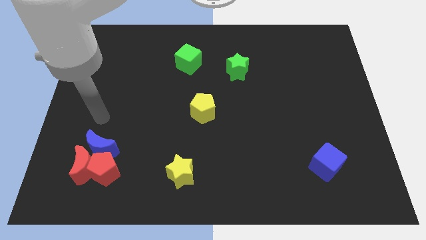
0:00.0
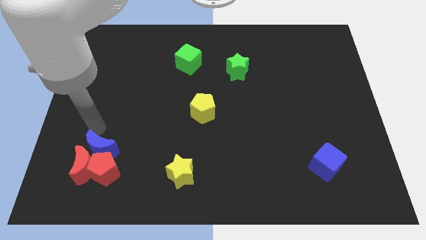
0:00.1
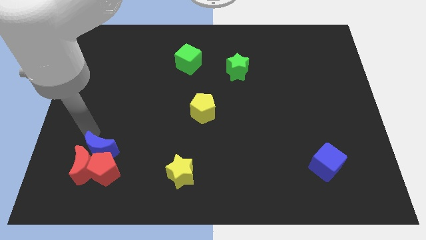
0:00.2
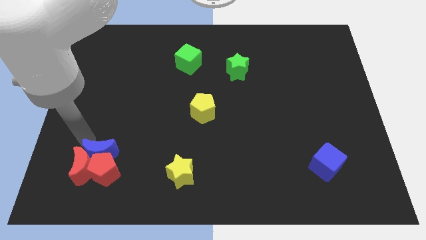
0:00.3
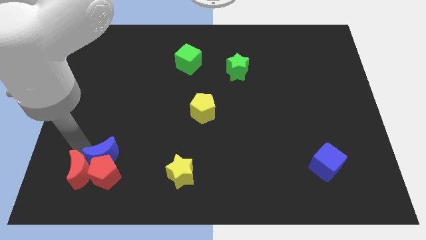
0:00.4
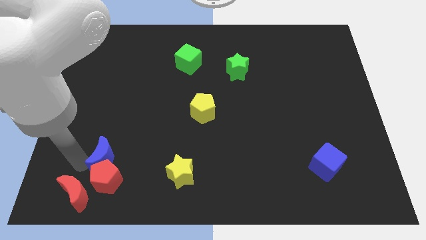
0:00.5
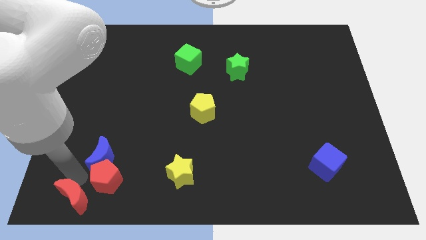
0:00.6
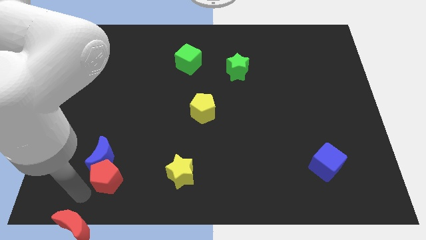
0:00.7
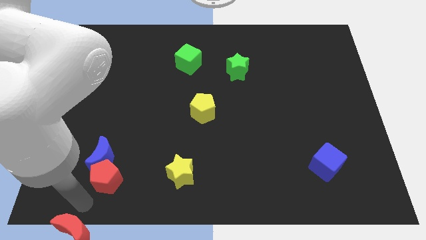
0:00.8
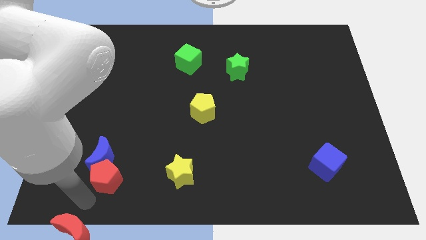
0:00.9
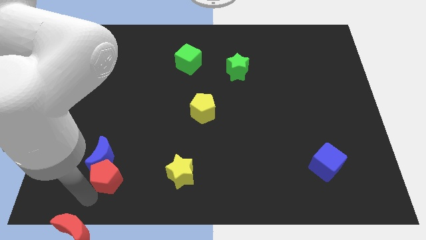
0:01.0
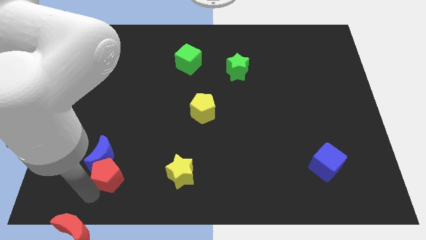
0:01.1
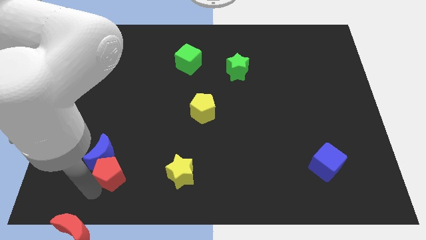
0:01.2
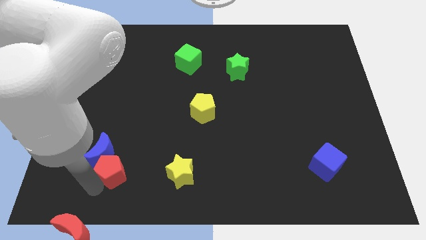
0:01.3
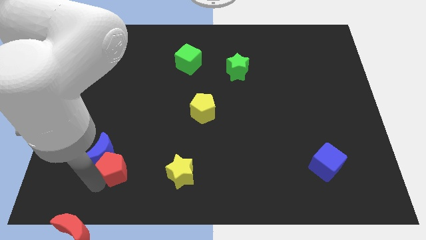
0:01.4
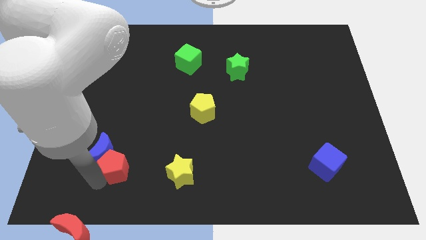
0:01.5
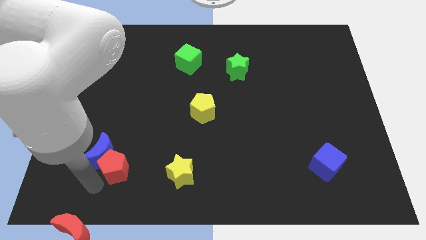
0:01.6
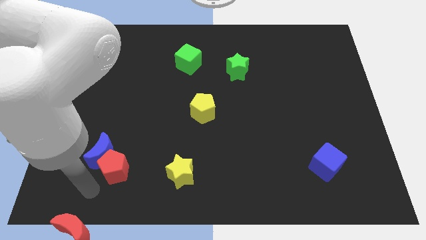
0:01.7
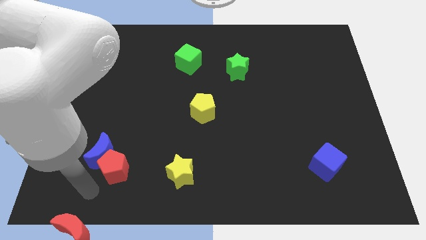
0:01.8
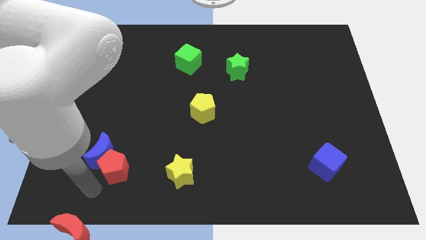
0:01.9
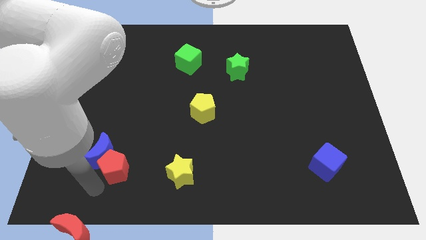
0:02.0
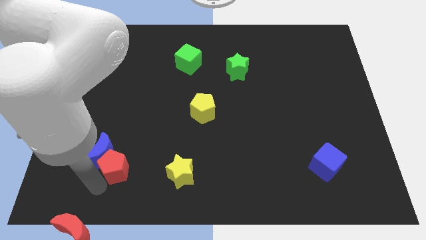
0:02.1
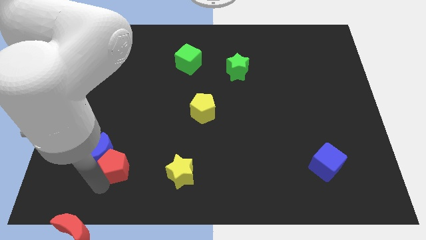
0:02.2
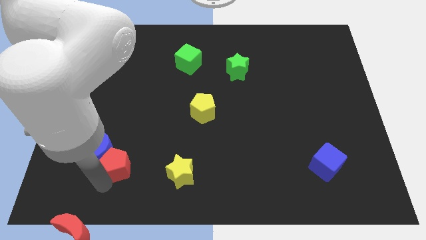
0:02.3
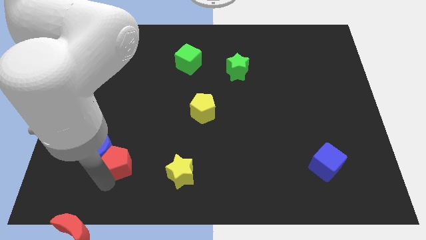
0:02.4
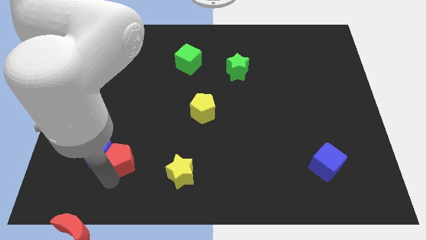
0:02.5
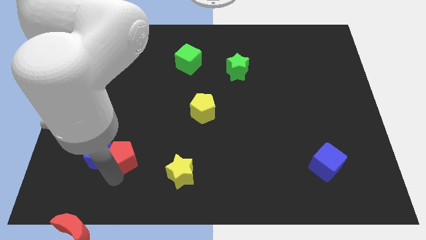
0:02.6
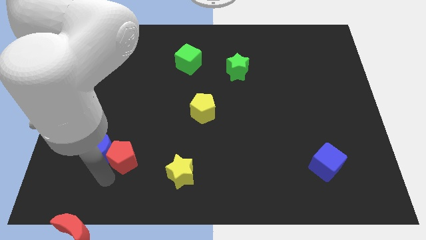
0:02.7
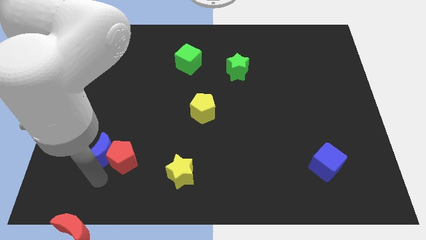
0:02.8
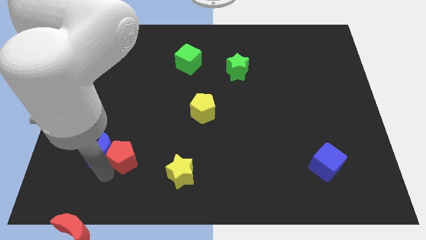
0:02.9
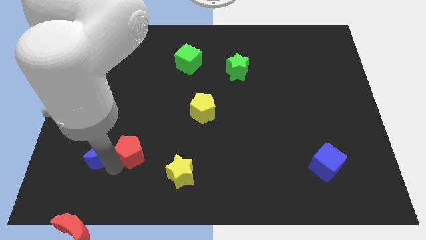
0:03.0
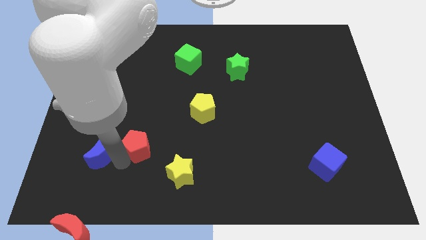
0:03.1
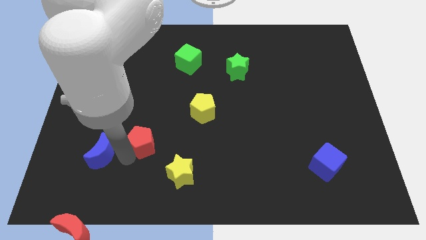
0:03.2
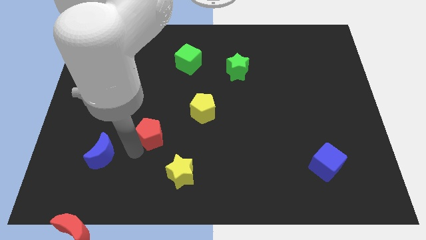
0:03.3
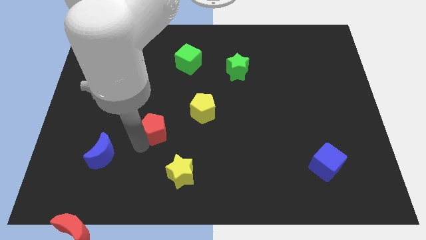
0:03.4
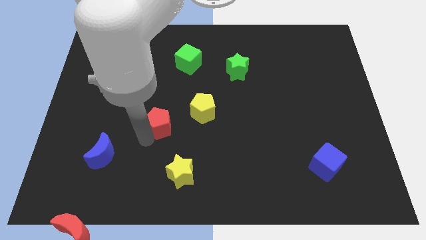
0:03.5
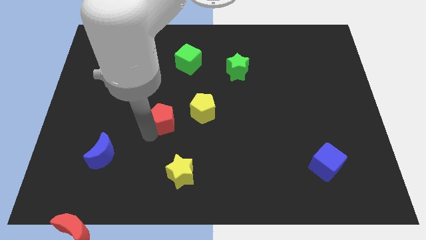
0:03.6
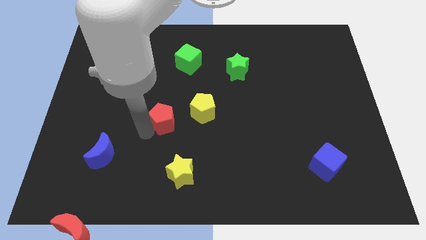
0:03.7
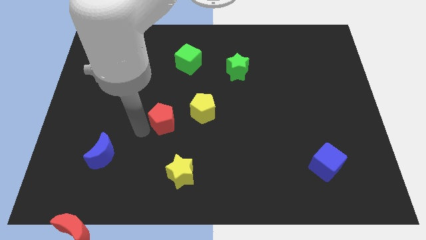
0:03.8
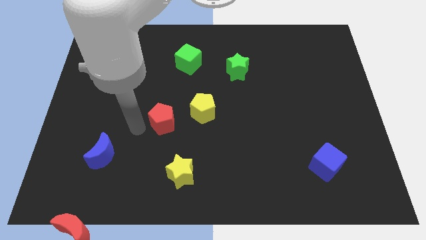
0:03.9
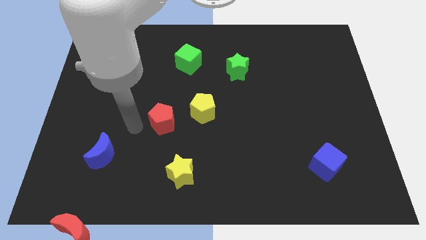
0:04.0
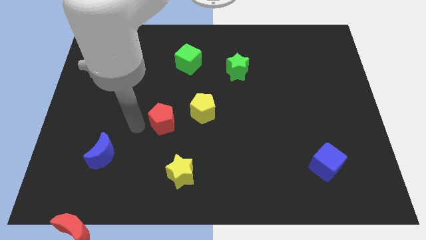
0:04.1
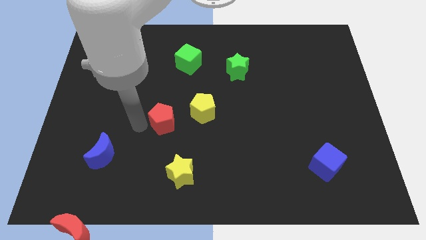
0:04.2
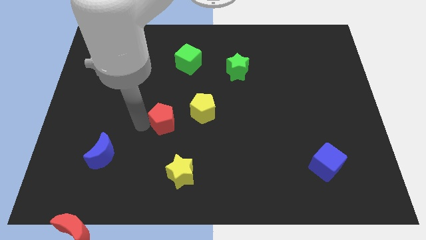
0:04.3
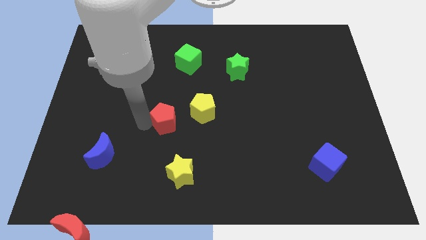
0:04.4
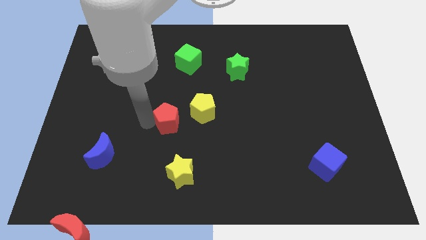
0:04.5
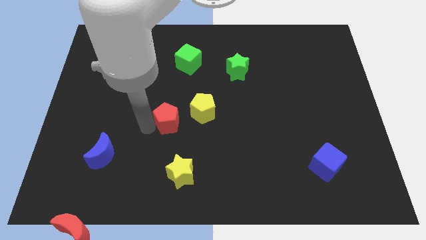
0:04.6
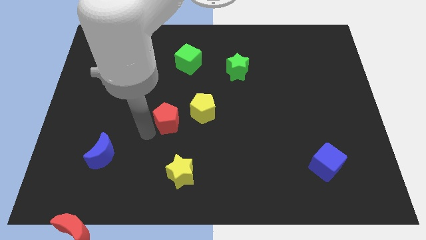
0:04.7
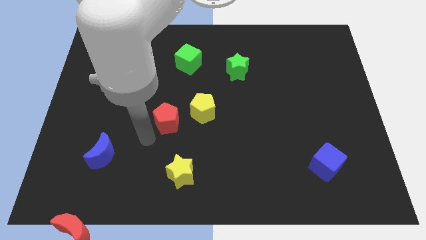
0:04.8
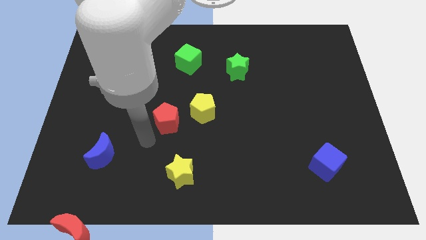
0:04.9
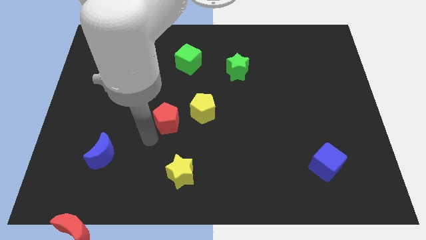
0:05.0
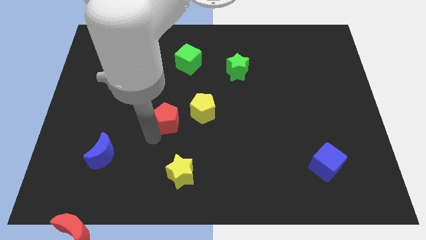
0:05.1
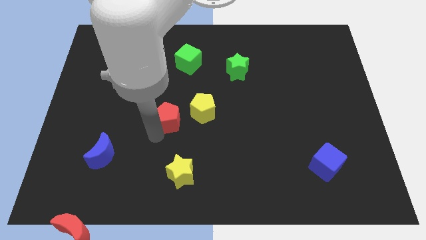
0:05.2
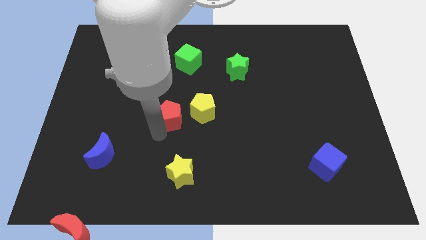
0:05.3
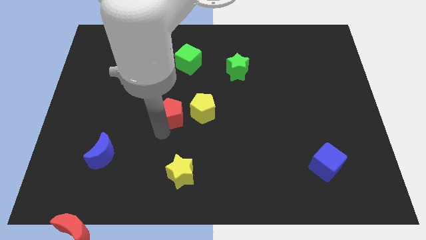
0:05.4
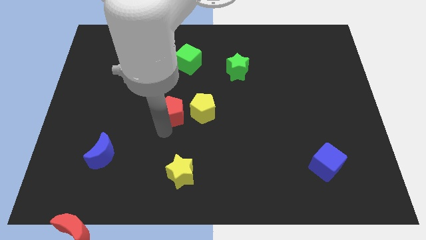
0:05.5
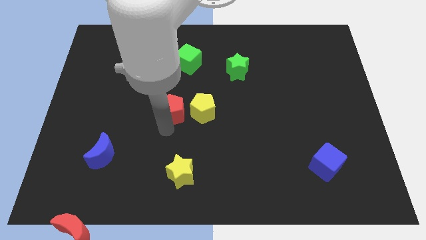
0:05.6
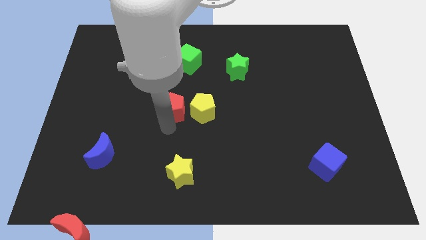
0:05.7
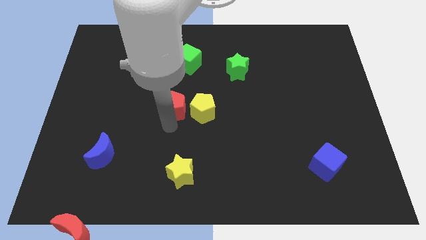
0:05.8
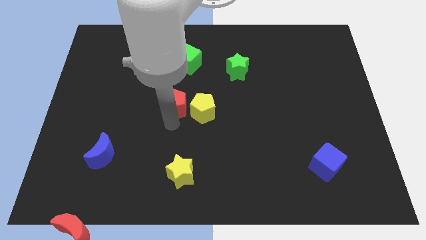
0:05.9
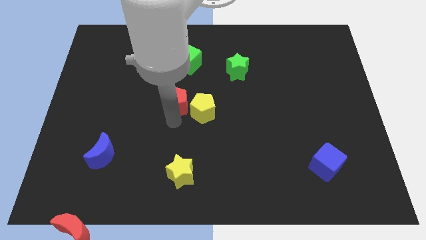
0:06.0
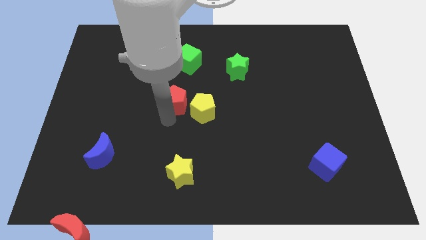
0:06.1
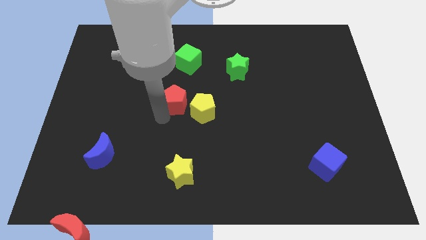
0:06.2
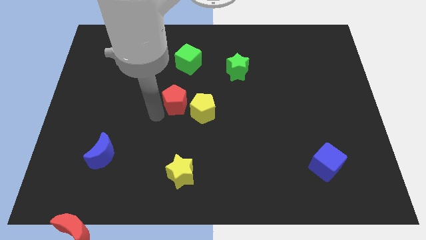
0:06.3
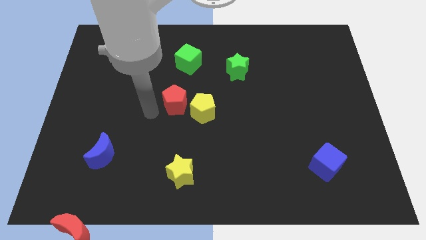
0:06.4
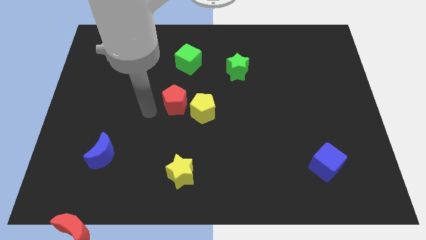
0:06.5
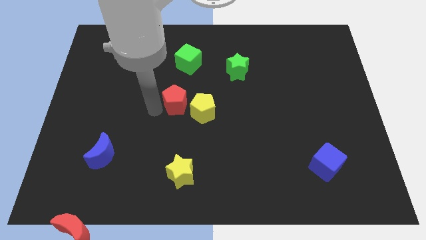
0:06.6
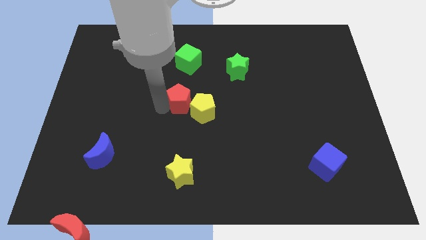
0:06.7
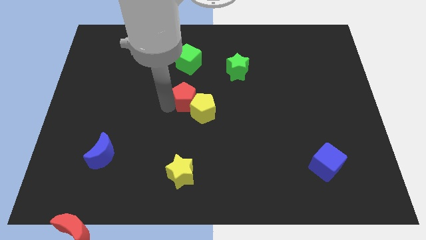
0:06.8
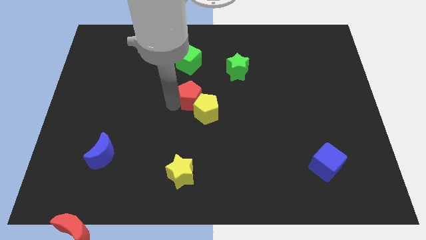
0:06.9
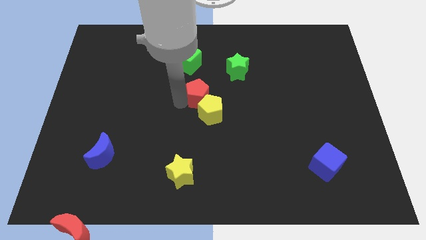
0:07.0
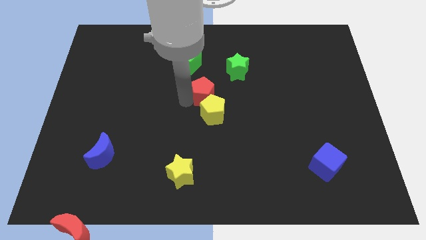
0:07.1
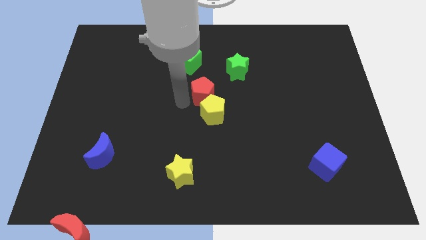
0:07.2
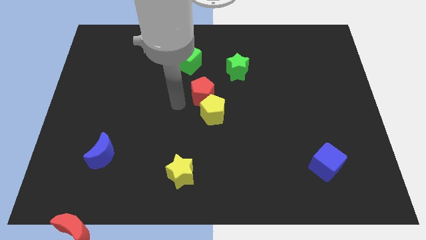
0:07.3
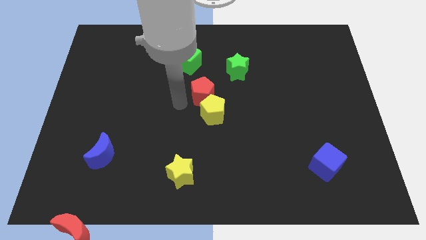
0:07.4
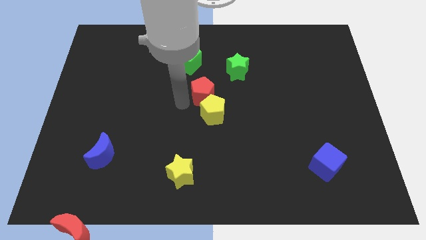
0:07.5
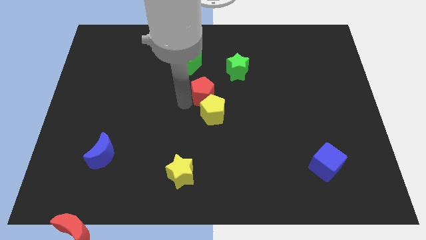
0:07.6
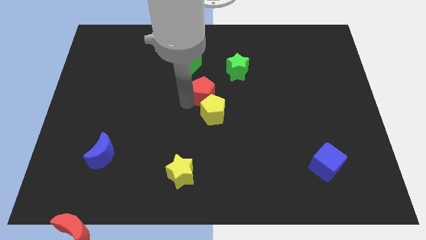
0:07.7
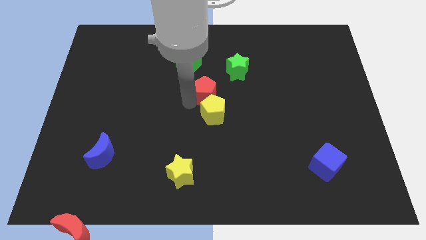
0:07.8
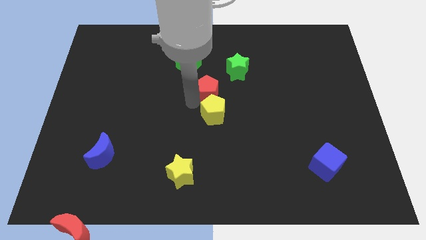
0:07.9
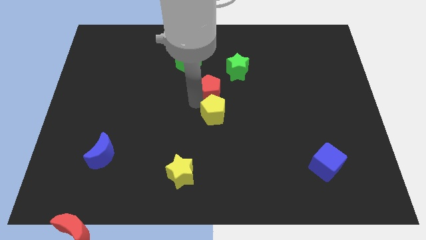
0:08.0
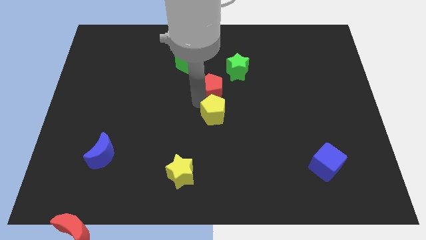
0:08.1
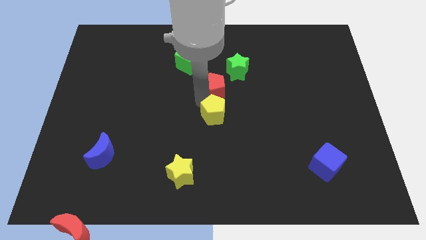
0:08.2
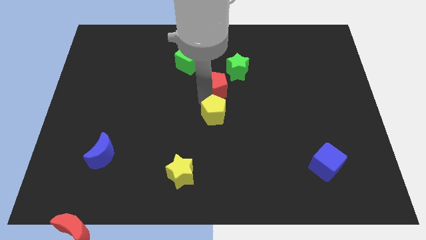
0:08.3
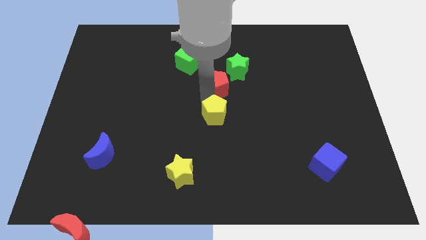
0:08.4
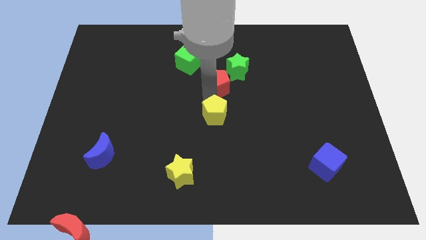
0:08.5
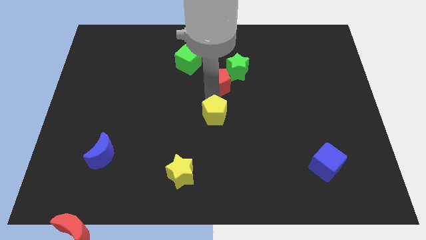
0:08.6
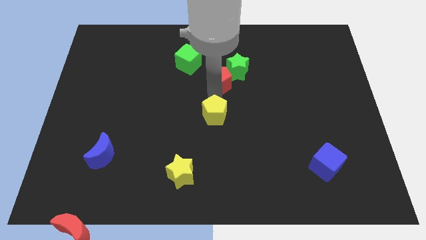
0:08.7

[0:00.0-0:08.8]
put the red pentagon close to the green star
